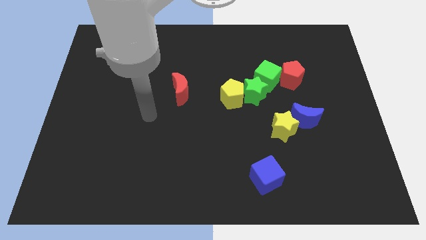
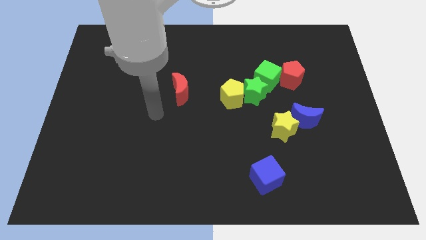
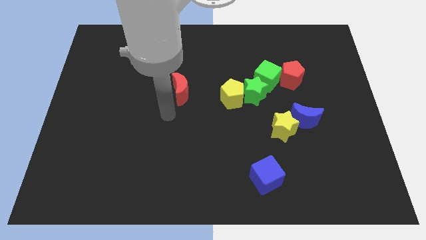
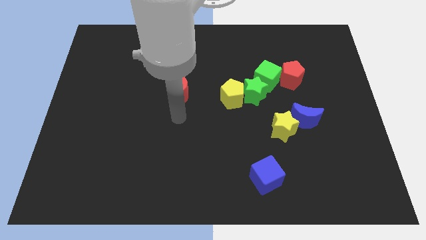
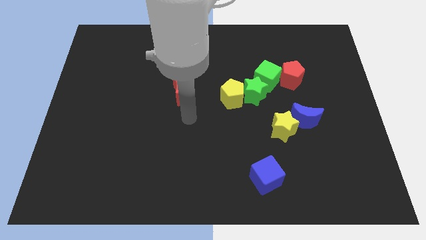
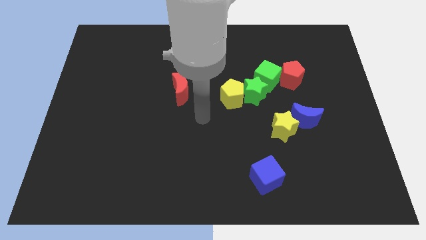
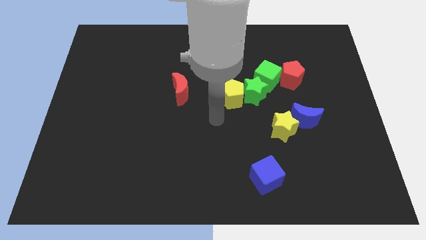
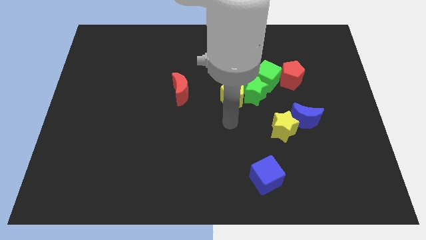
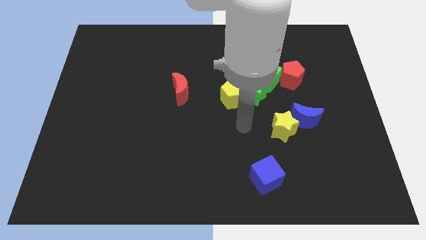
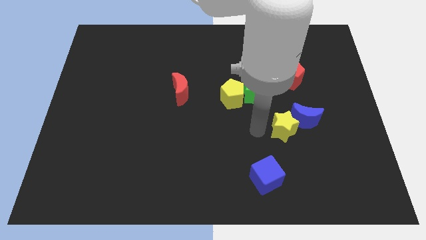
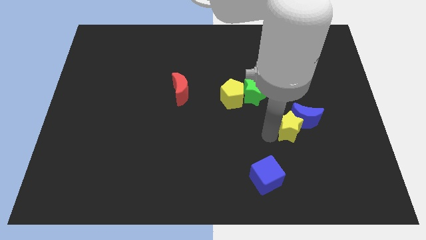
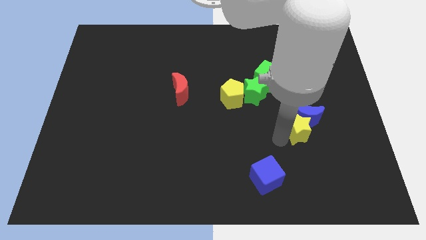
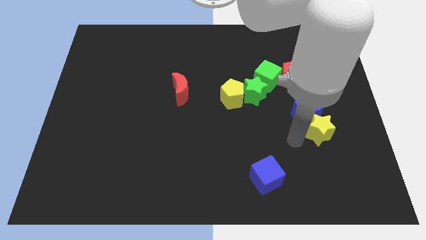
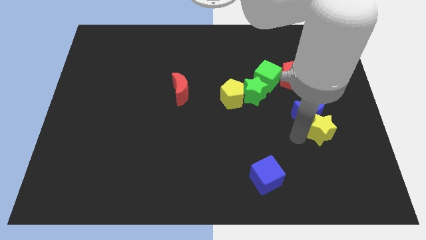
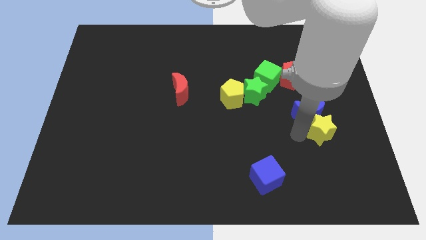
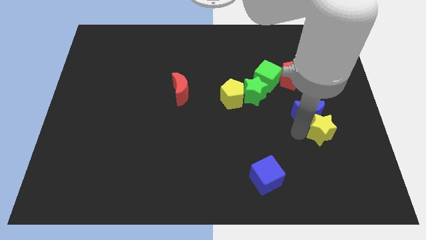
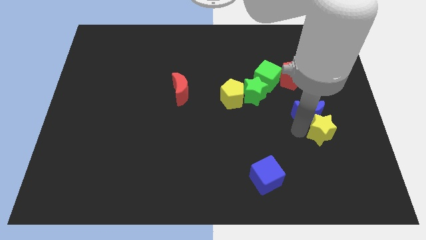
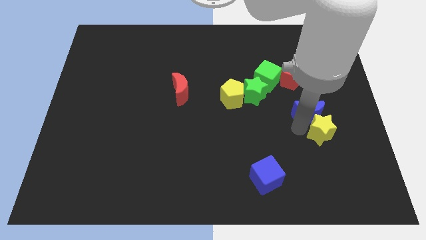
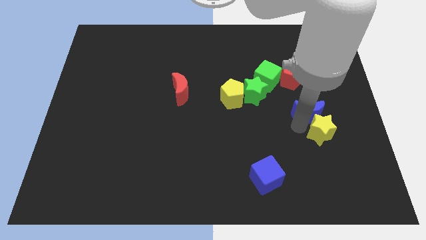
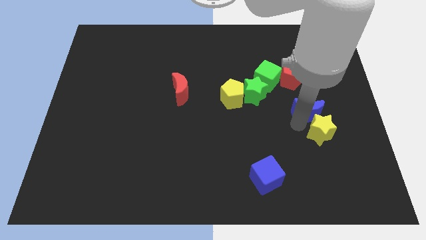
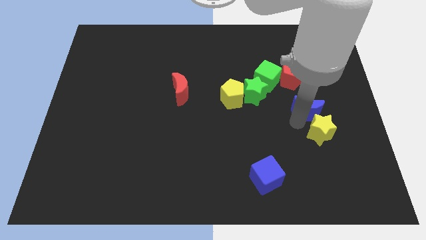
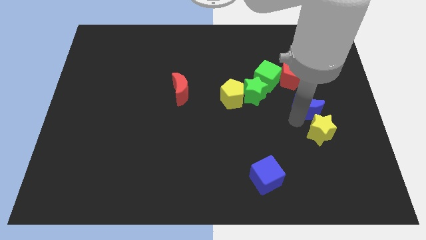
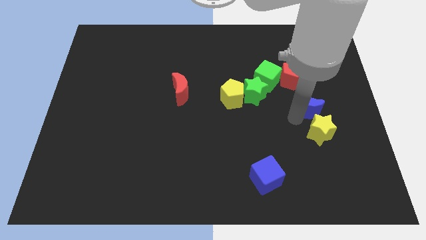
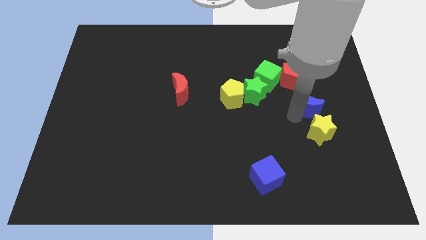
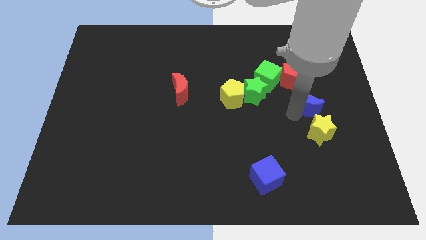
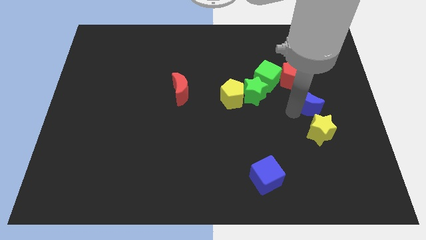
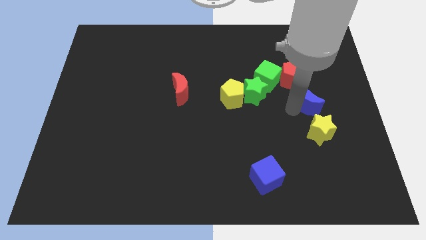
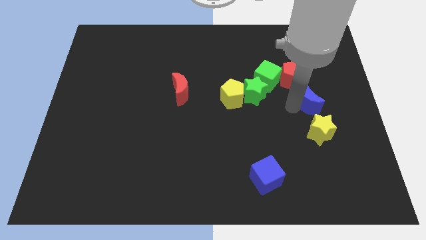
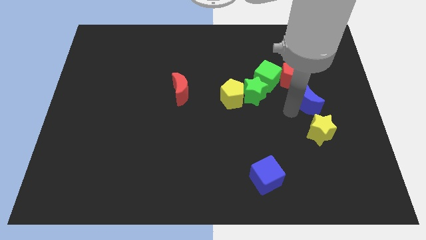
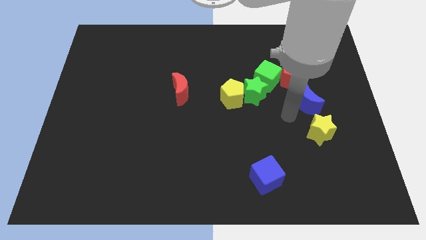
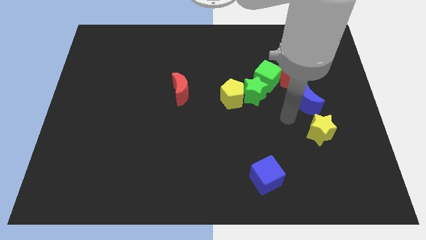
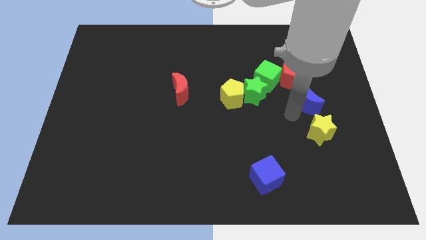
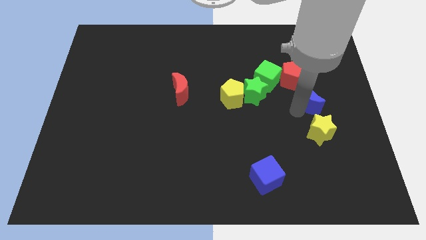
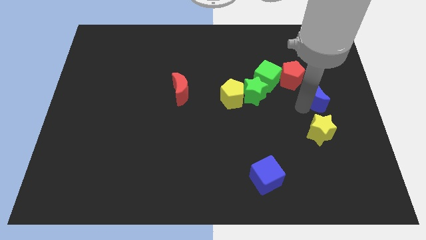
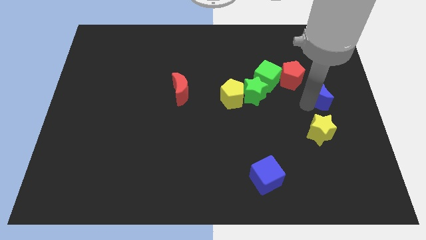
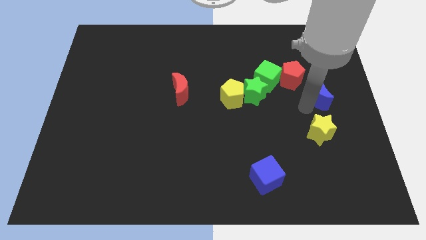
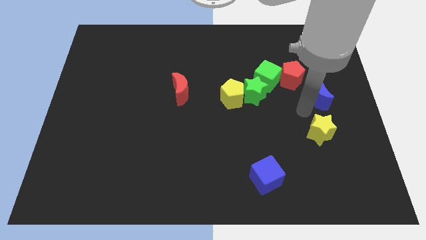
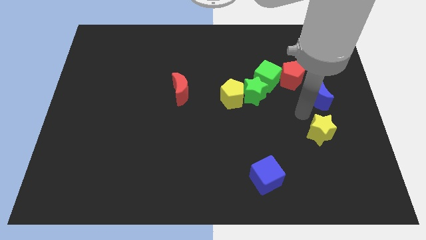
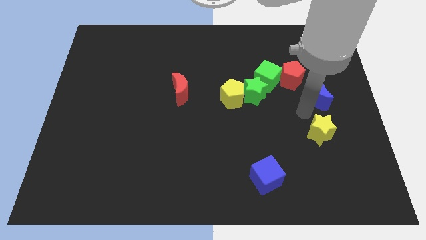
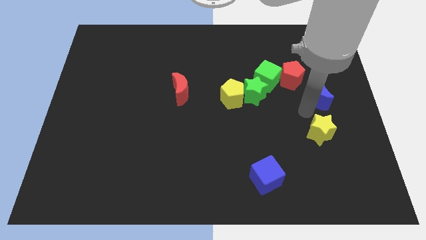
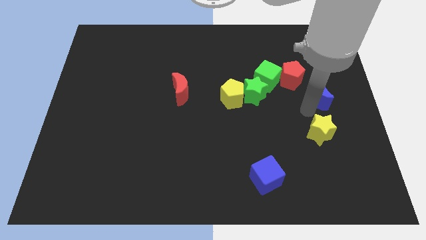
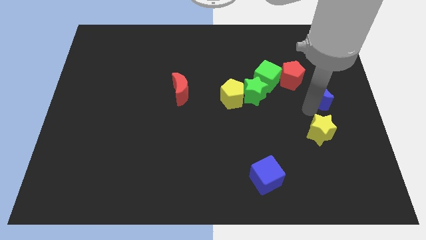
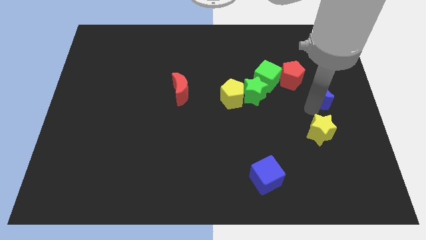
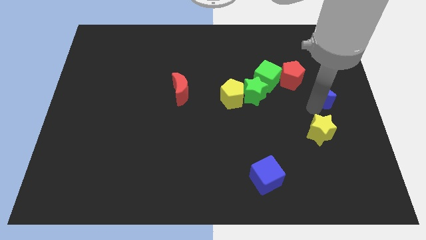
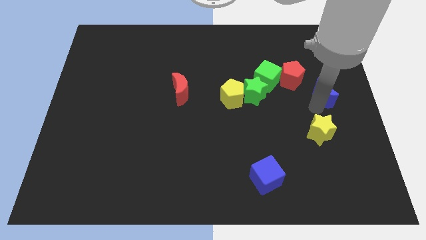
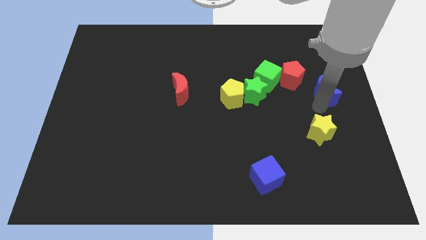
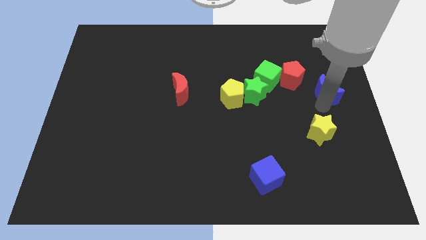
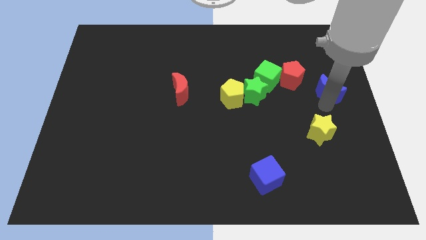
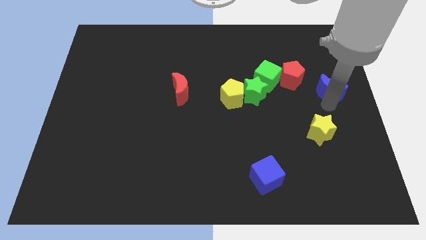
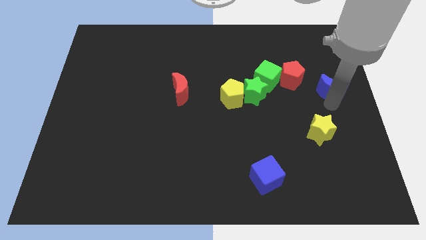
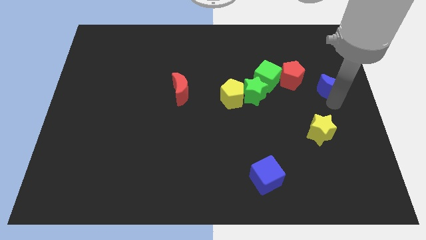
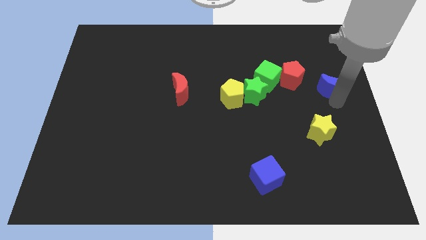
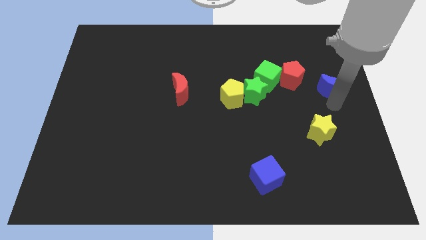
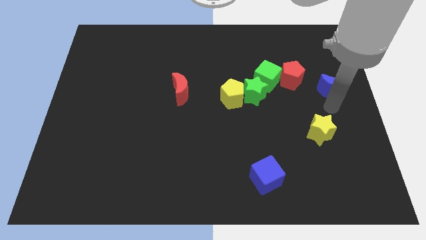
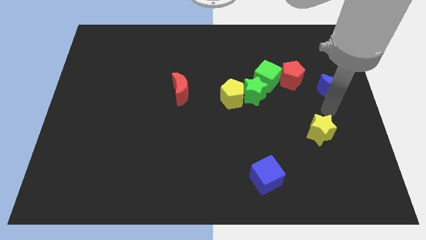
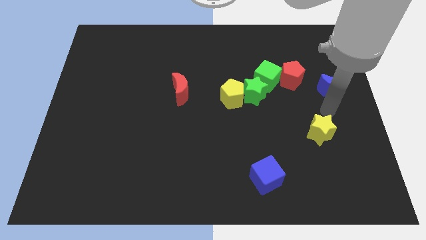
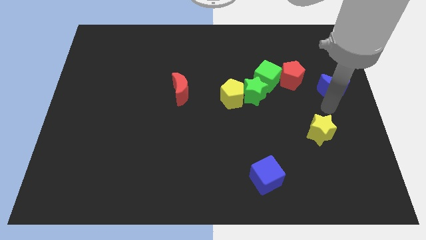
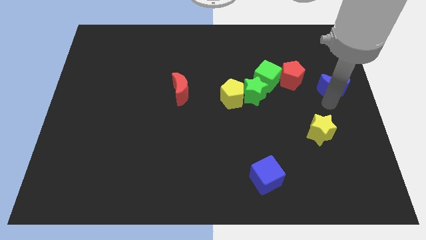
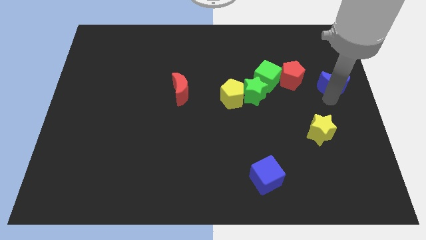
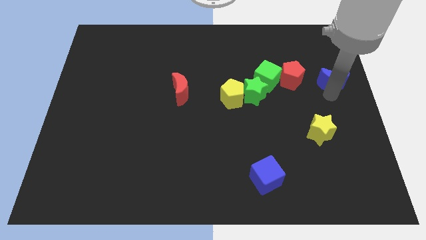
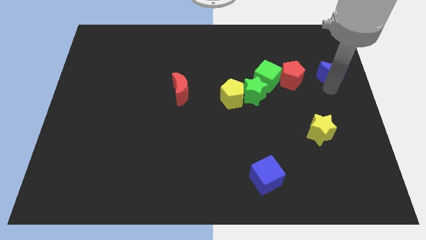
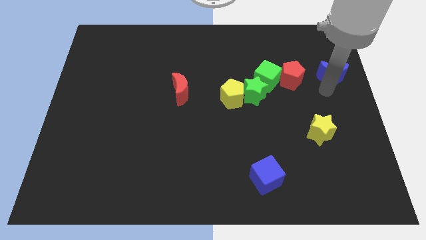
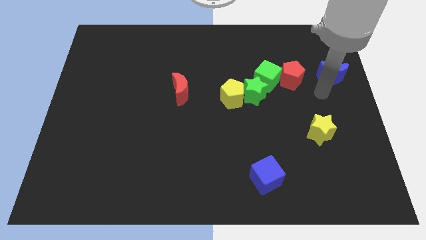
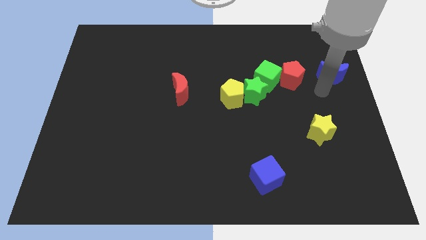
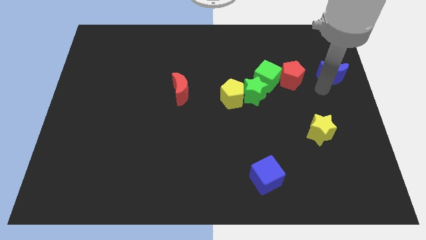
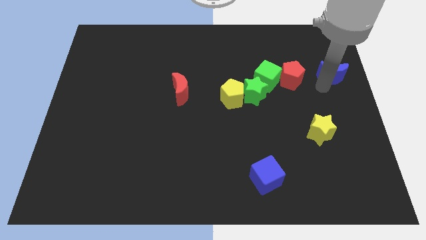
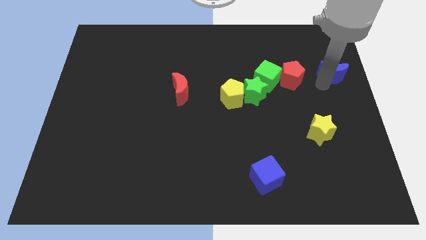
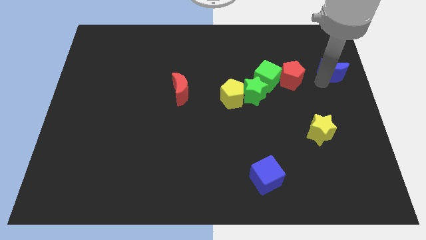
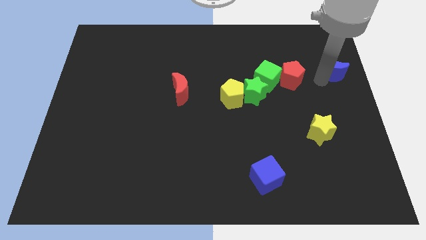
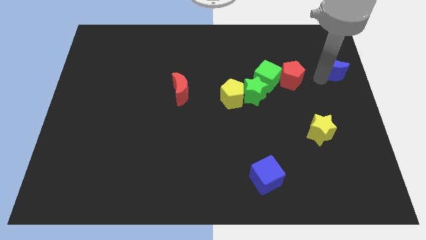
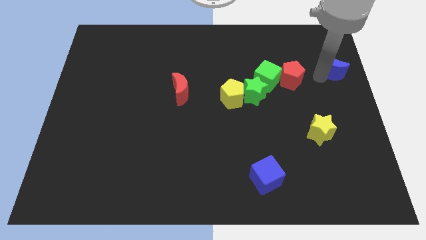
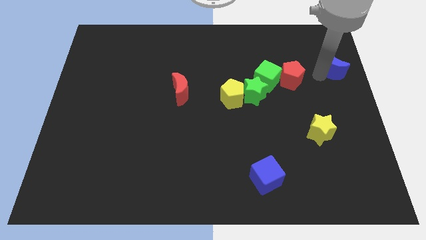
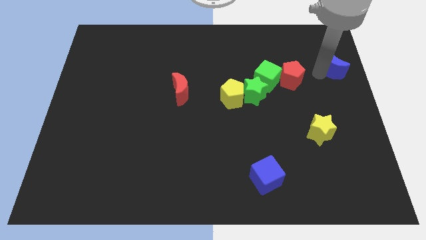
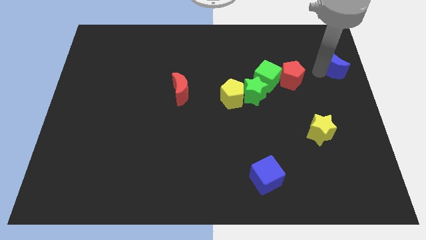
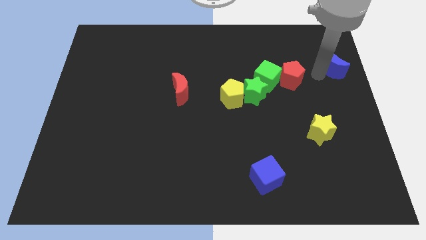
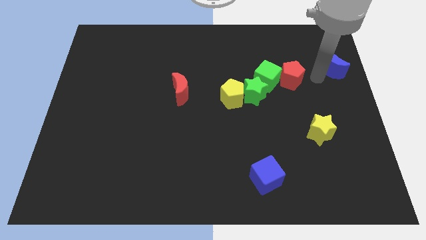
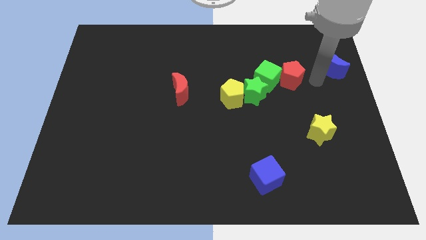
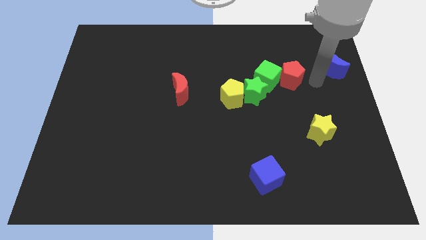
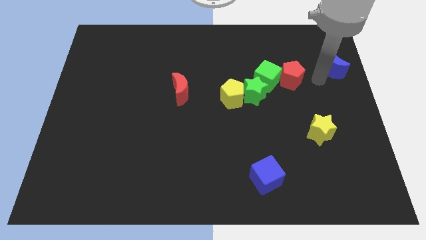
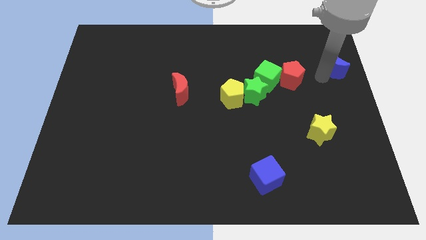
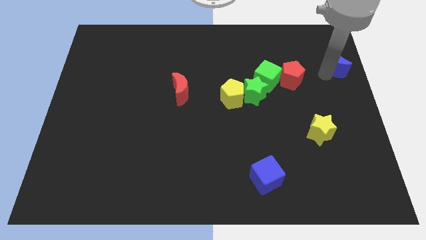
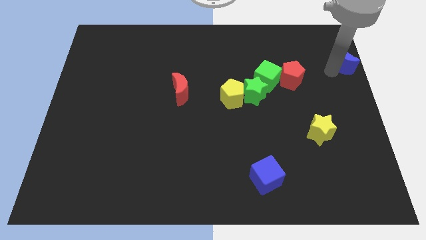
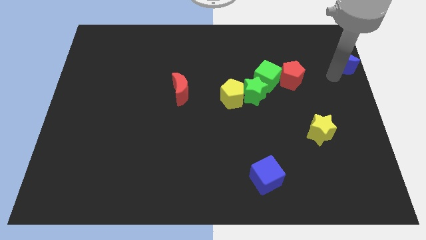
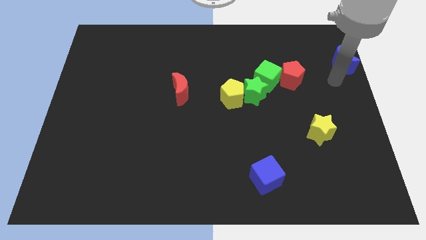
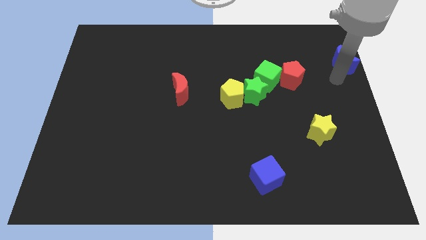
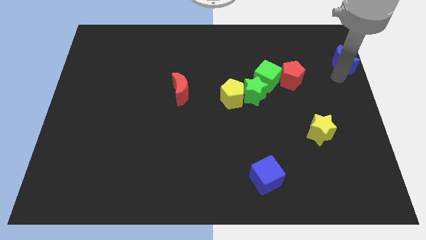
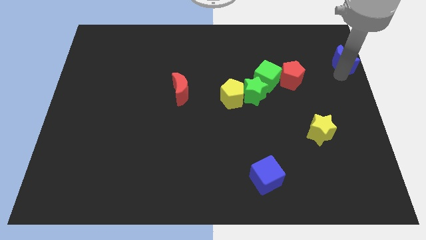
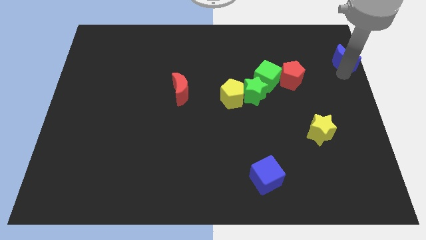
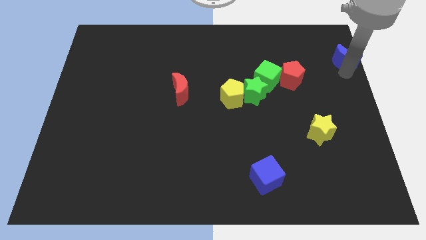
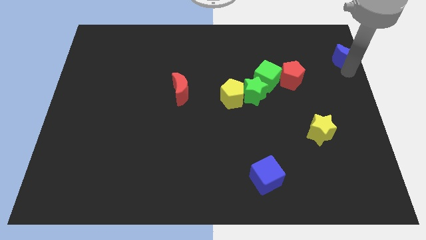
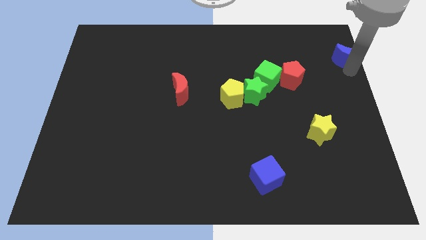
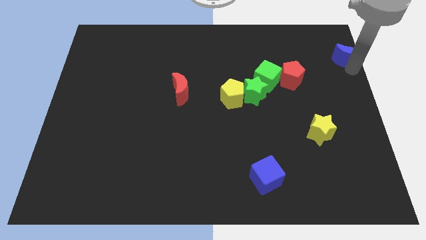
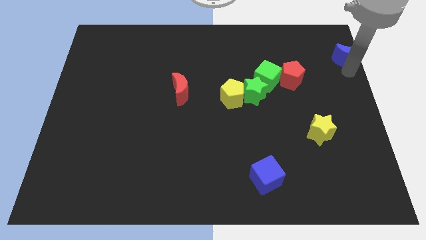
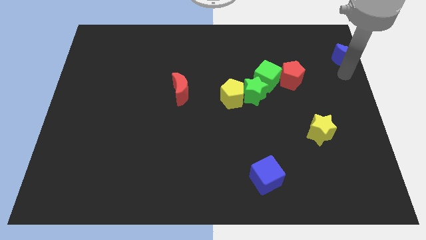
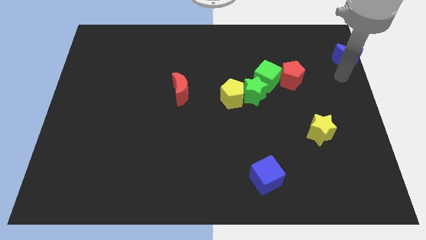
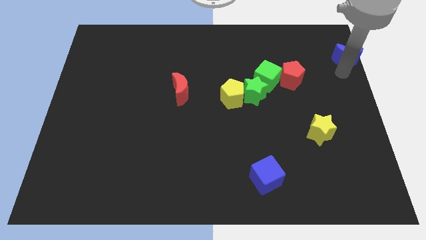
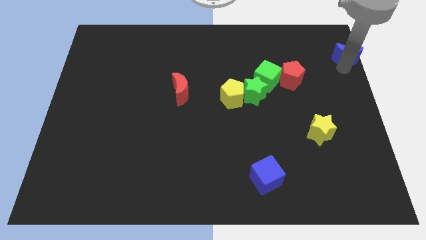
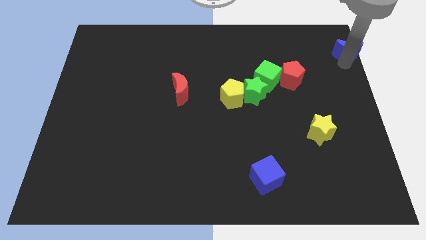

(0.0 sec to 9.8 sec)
push the blue moon to the top right
